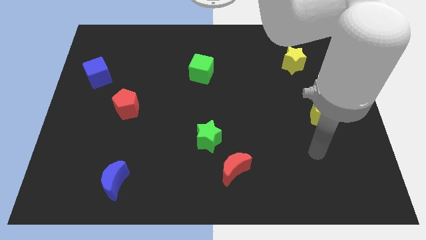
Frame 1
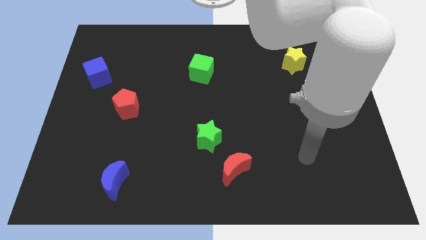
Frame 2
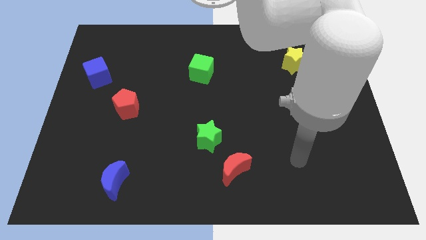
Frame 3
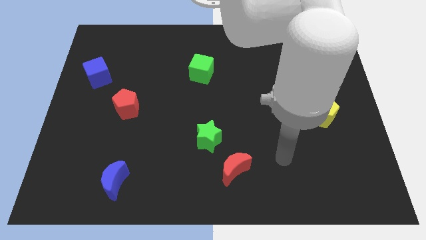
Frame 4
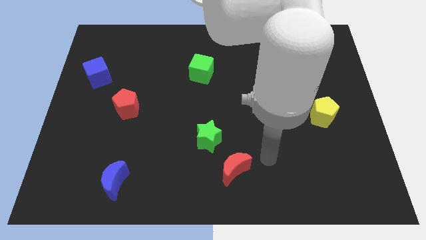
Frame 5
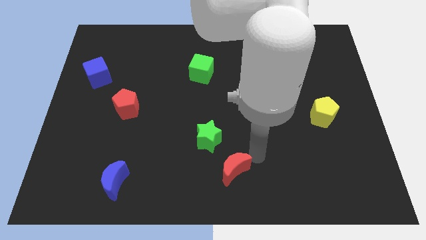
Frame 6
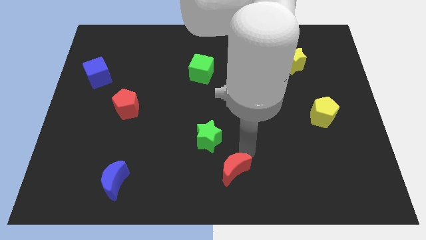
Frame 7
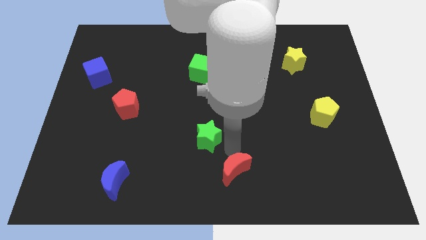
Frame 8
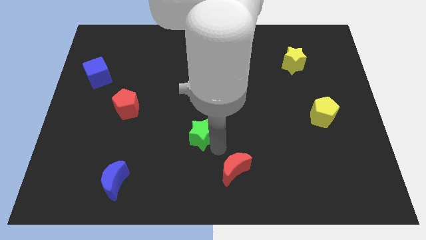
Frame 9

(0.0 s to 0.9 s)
pull the red moon apart from the green star

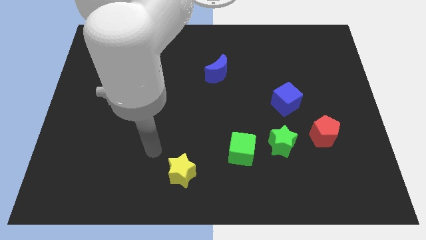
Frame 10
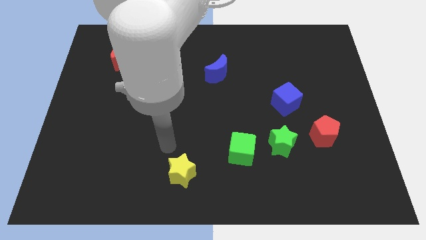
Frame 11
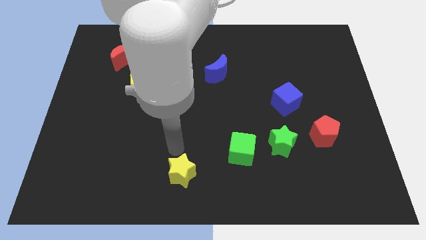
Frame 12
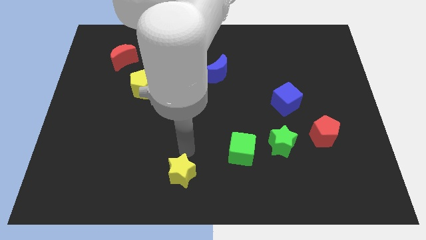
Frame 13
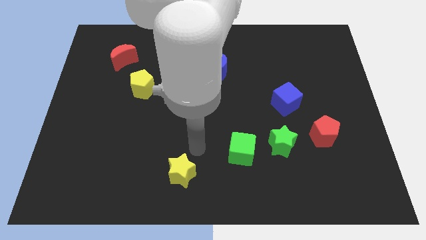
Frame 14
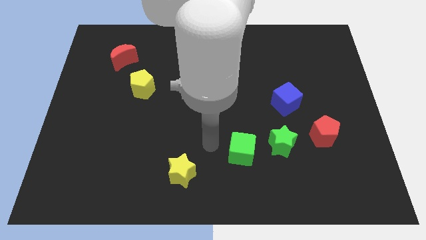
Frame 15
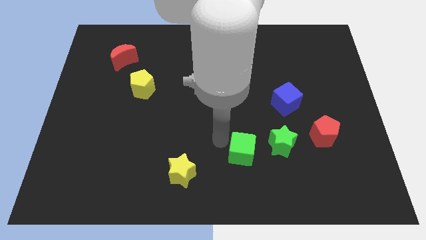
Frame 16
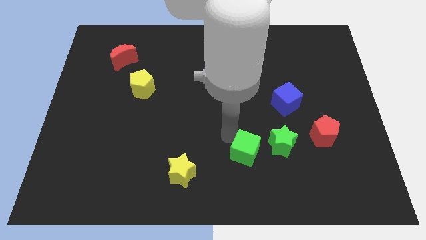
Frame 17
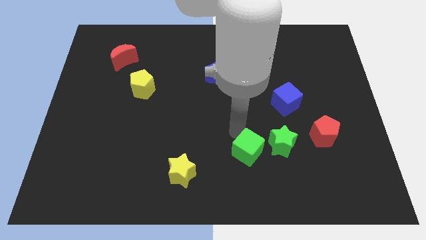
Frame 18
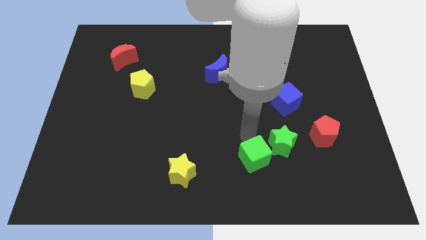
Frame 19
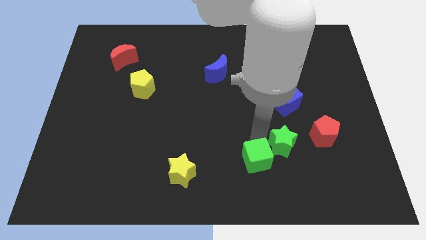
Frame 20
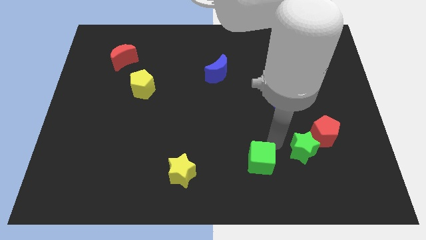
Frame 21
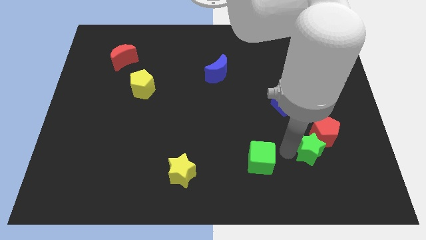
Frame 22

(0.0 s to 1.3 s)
move the green cube away from the green star

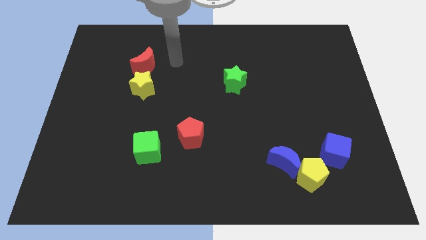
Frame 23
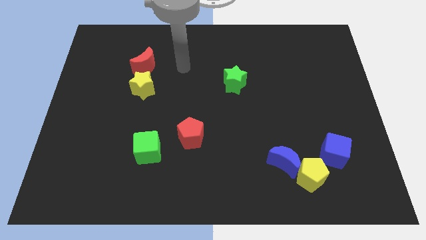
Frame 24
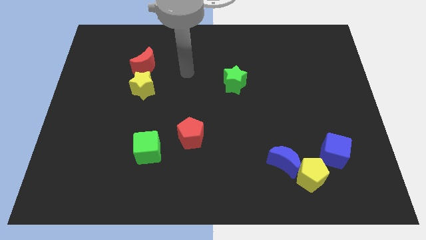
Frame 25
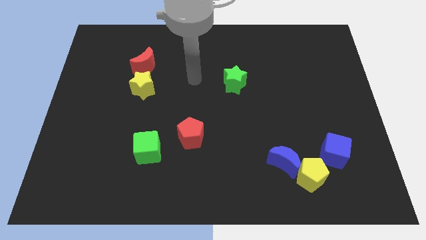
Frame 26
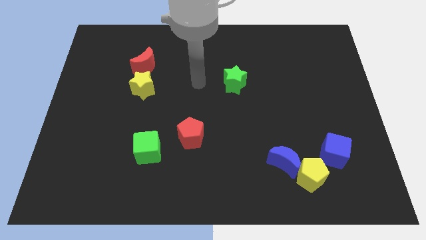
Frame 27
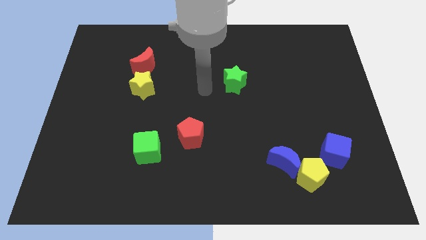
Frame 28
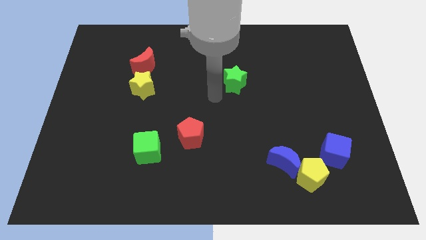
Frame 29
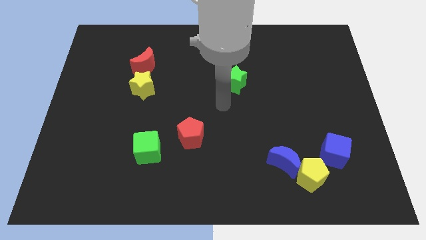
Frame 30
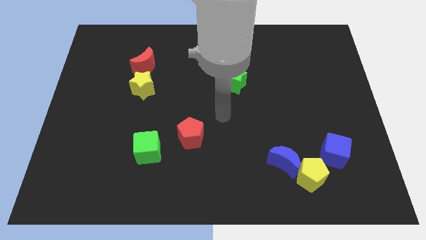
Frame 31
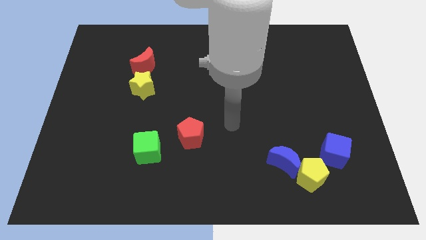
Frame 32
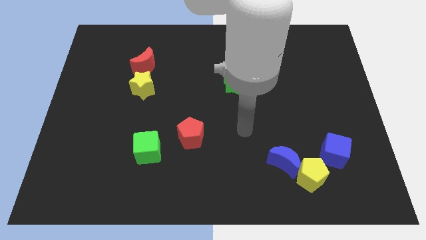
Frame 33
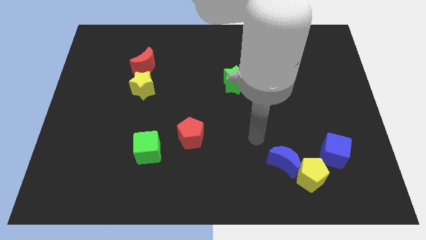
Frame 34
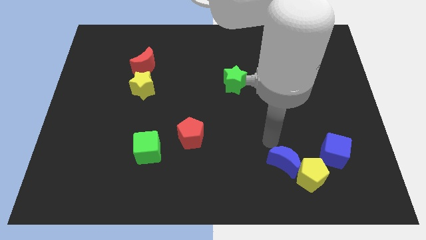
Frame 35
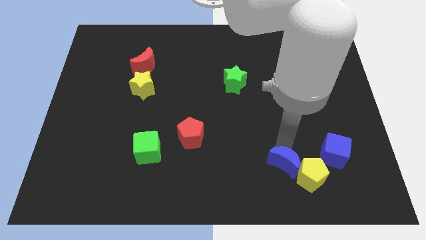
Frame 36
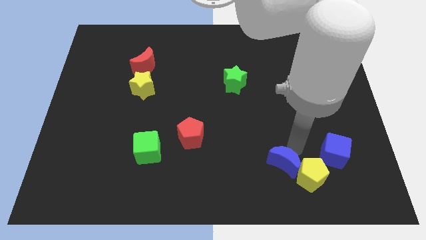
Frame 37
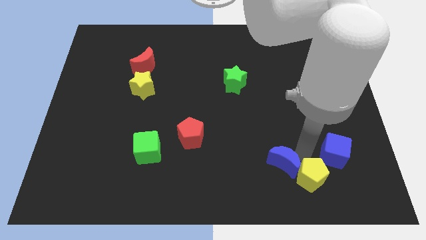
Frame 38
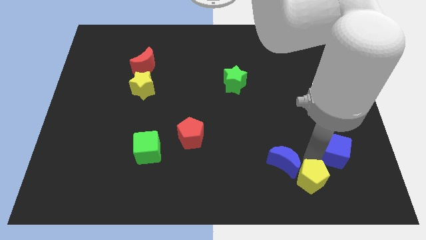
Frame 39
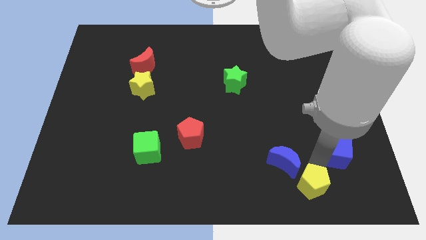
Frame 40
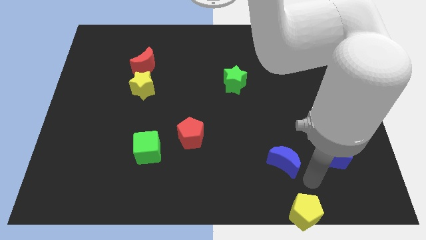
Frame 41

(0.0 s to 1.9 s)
move the blue moon away from the yellow pentagon

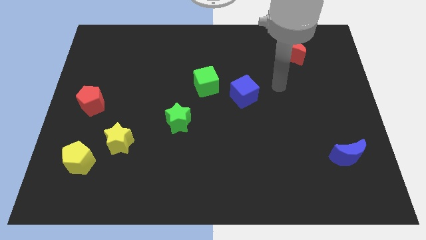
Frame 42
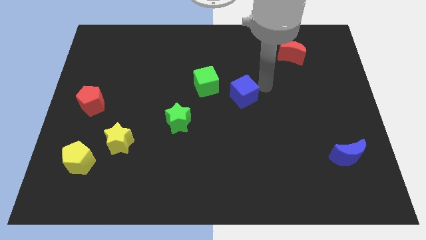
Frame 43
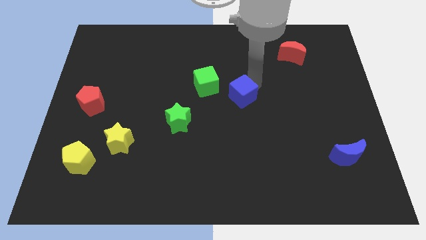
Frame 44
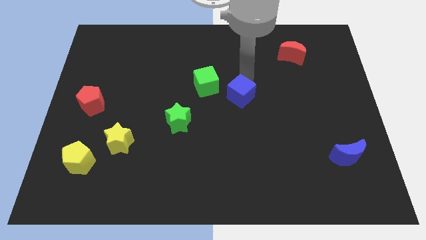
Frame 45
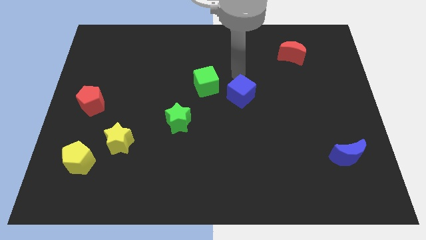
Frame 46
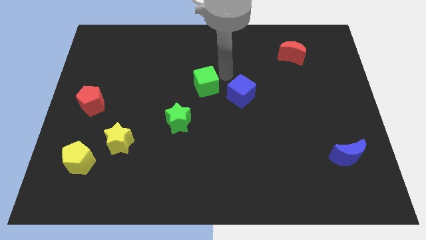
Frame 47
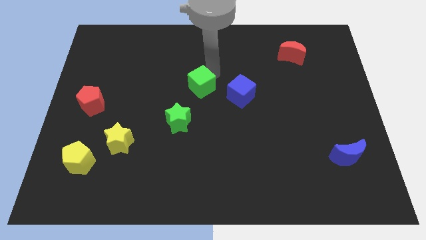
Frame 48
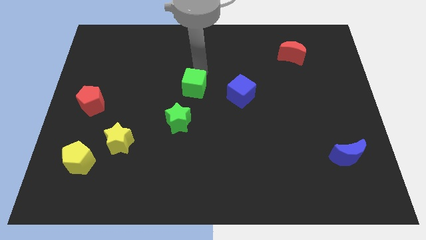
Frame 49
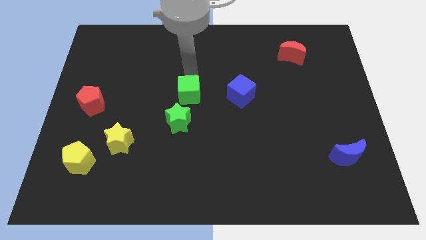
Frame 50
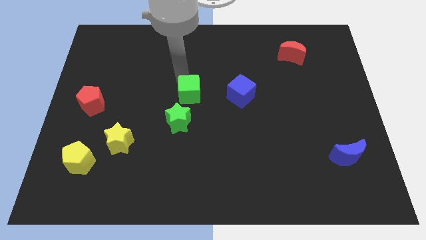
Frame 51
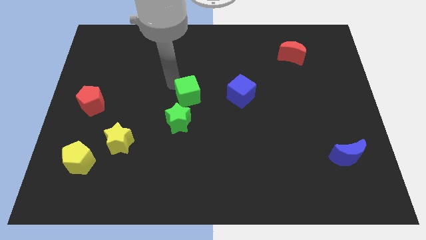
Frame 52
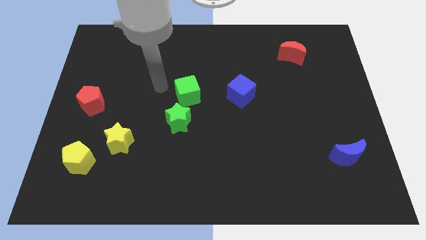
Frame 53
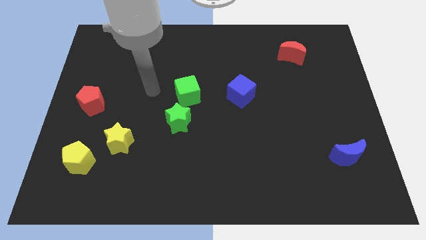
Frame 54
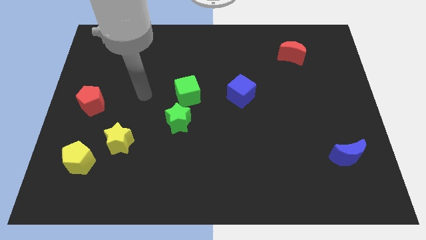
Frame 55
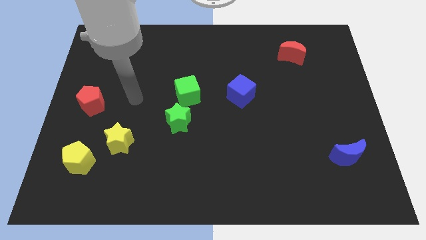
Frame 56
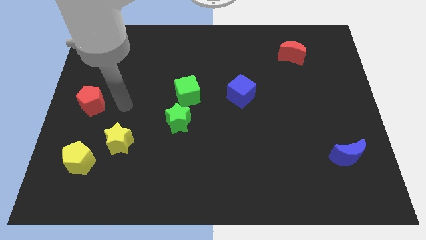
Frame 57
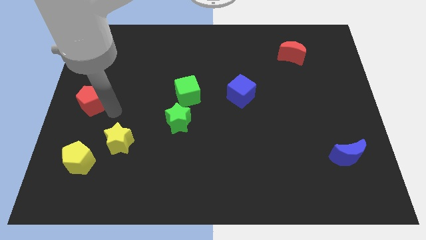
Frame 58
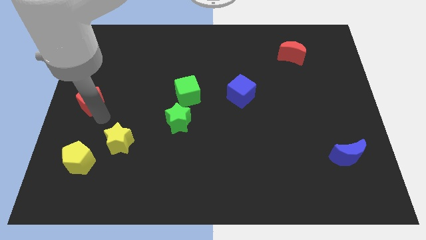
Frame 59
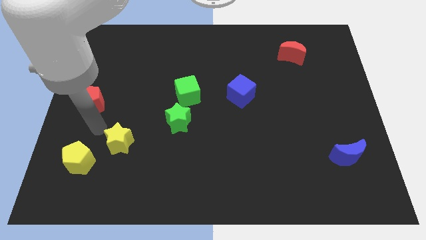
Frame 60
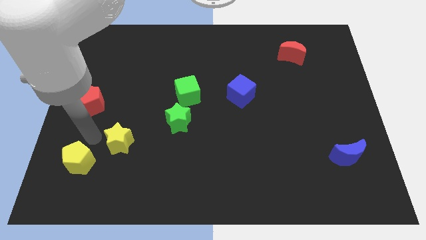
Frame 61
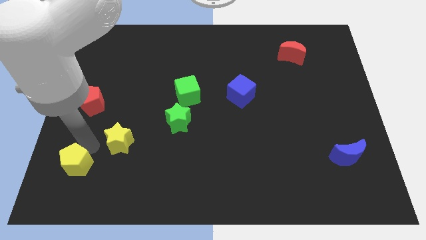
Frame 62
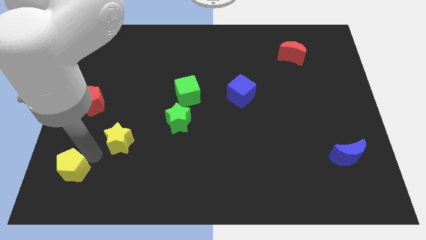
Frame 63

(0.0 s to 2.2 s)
pull the yellow star apart from the yellow pentagon

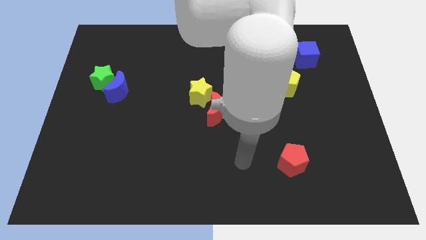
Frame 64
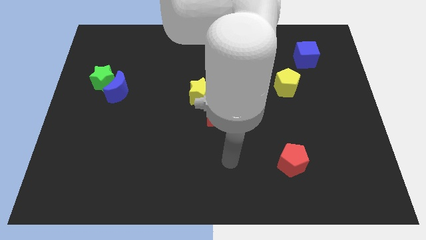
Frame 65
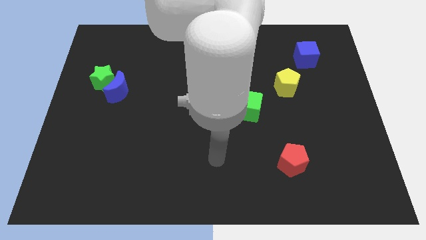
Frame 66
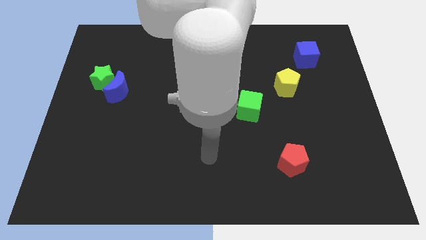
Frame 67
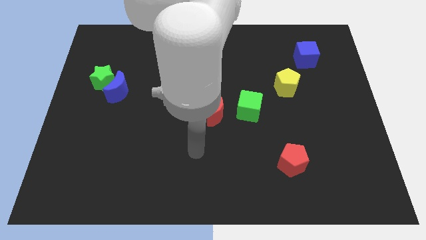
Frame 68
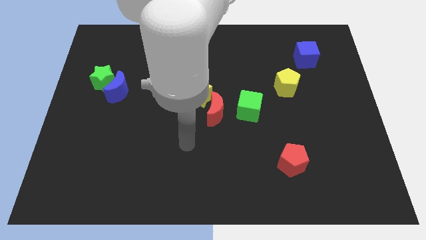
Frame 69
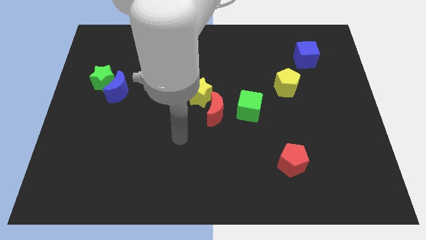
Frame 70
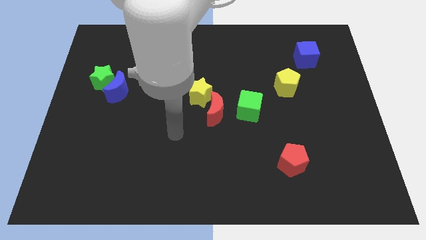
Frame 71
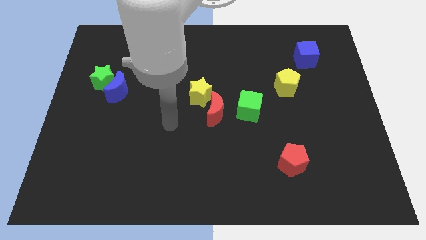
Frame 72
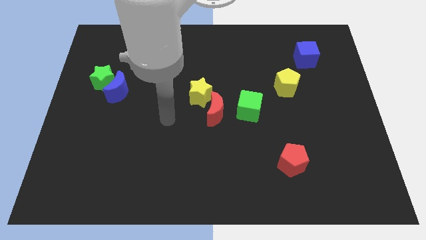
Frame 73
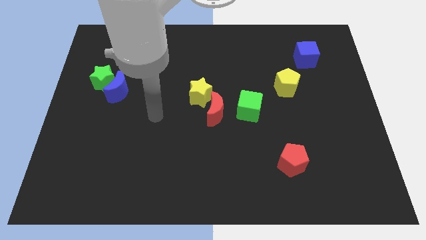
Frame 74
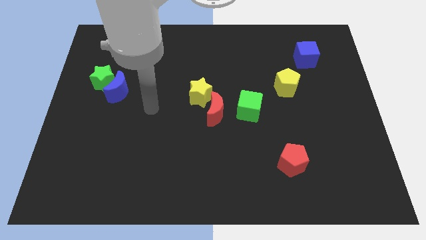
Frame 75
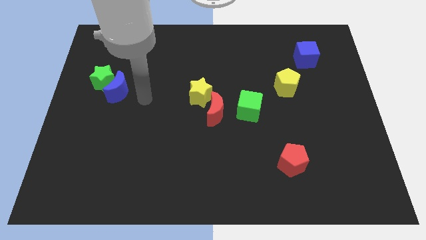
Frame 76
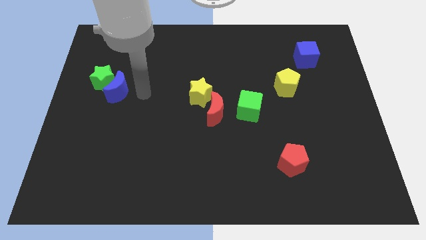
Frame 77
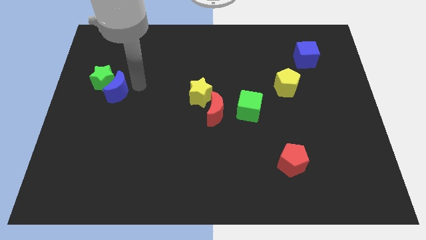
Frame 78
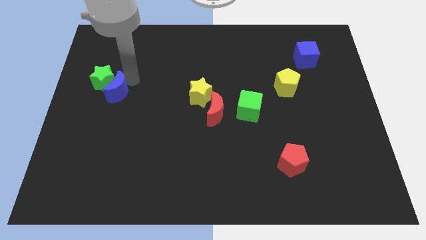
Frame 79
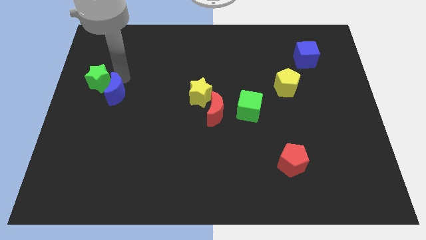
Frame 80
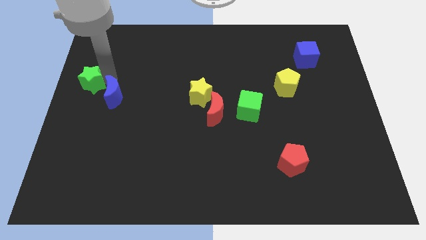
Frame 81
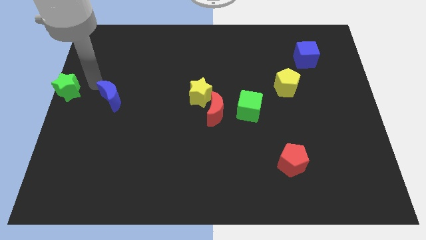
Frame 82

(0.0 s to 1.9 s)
separate the blue moon from the green star

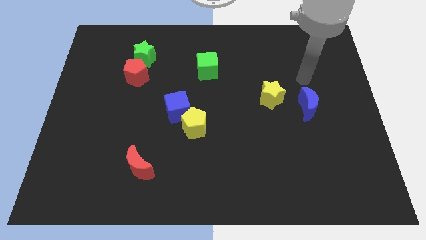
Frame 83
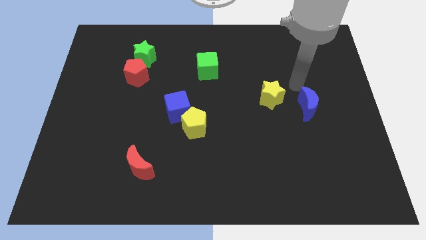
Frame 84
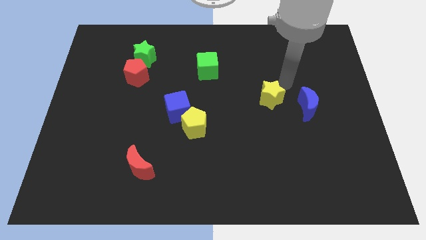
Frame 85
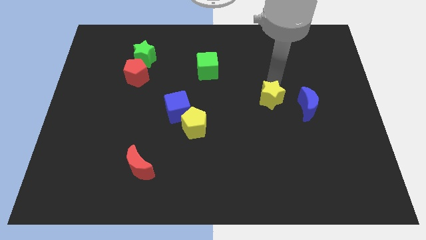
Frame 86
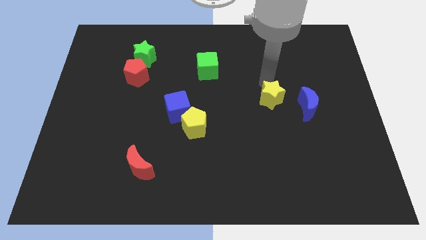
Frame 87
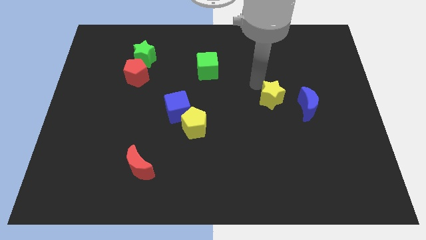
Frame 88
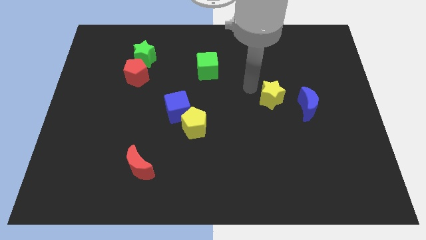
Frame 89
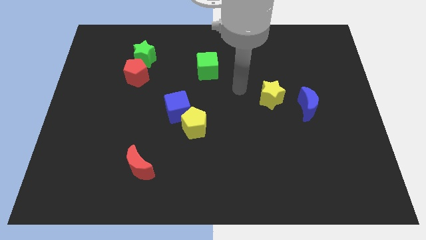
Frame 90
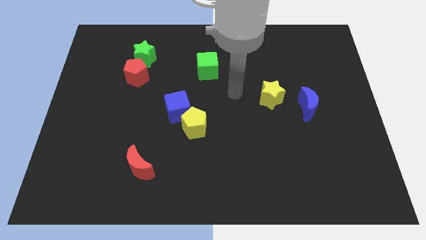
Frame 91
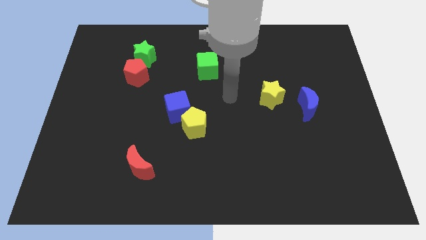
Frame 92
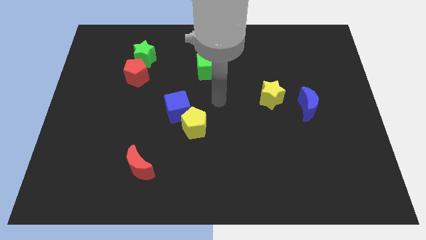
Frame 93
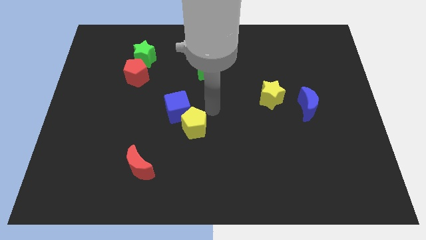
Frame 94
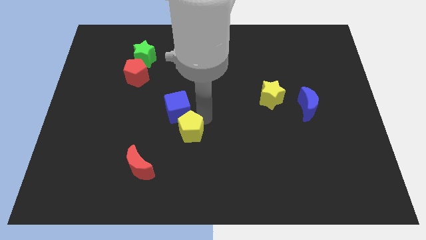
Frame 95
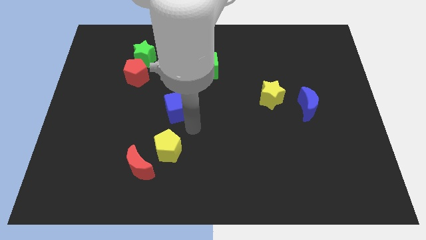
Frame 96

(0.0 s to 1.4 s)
separate the blue cube from the yellow pentagon
